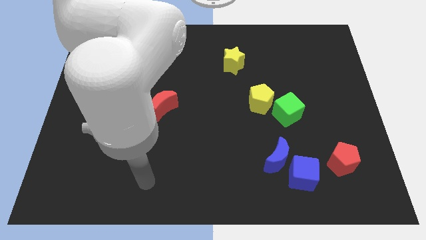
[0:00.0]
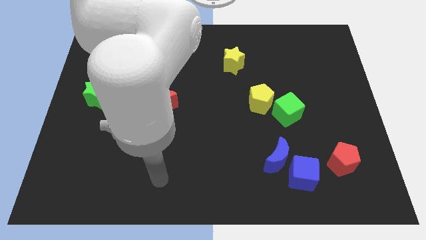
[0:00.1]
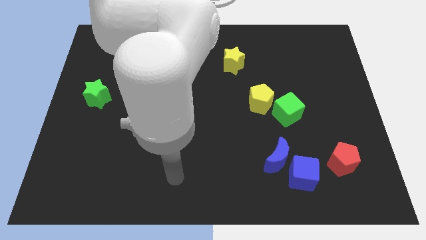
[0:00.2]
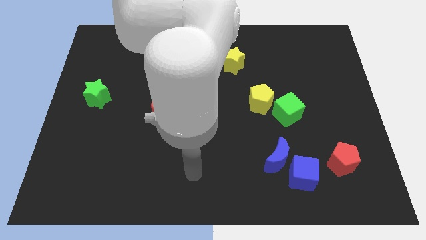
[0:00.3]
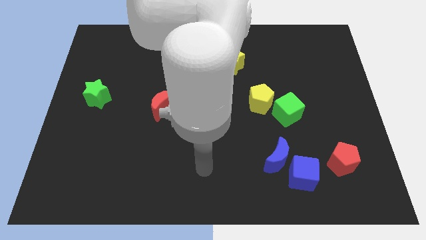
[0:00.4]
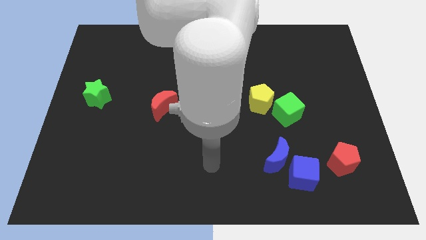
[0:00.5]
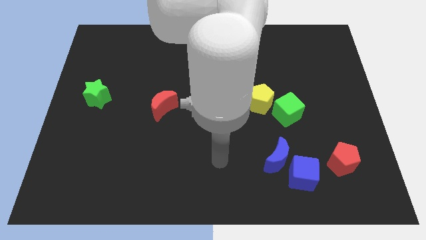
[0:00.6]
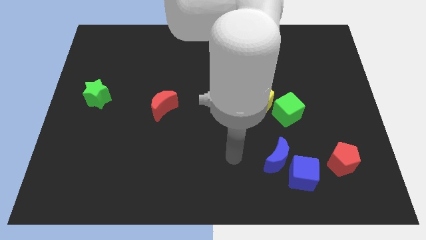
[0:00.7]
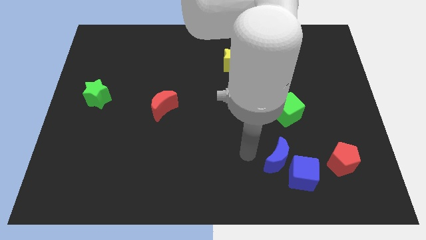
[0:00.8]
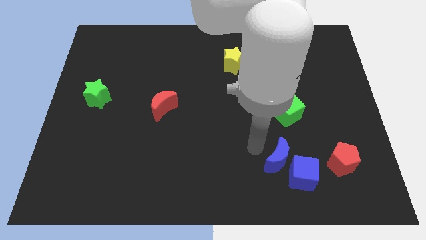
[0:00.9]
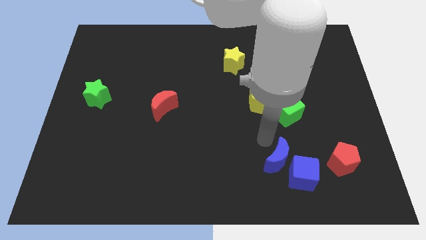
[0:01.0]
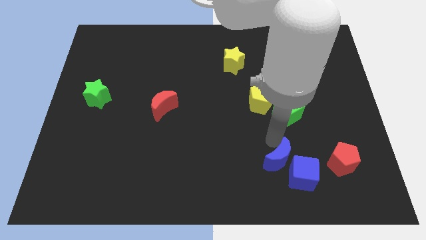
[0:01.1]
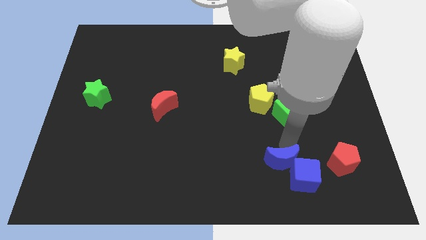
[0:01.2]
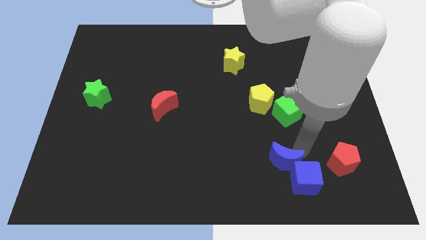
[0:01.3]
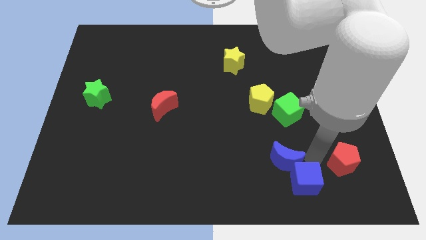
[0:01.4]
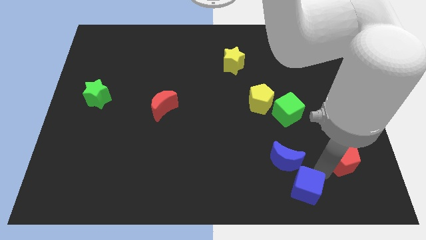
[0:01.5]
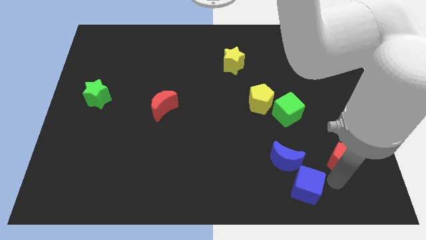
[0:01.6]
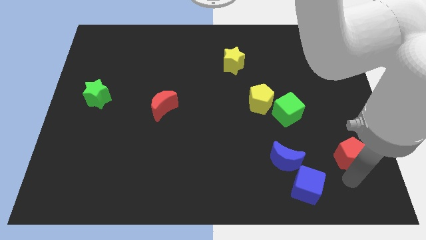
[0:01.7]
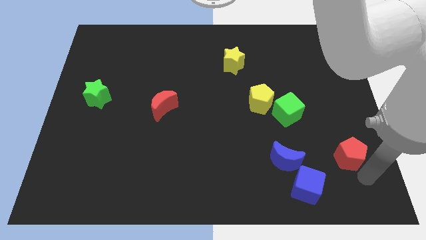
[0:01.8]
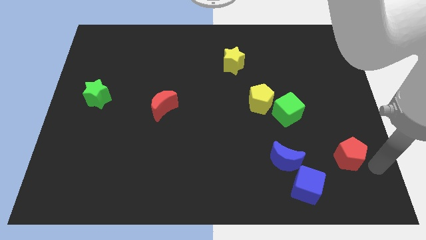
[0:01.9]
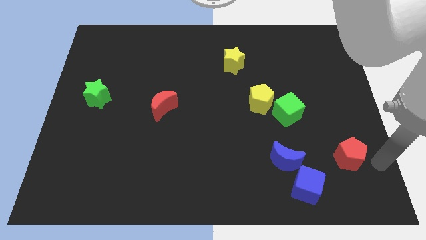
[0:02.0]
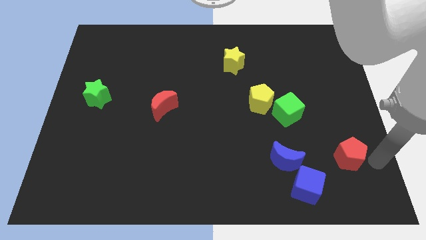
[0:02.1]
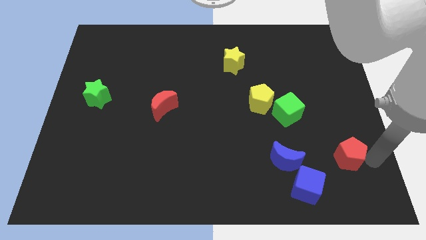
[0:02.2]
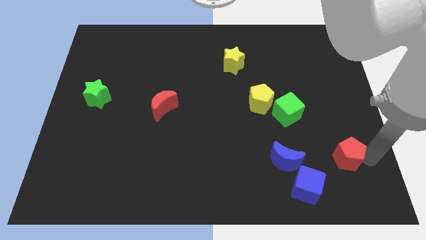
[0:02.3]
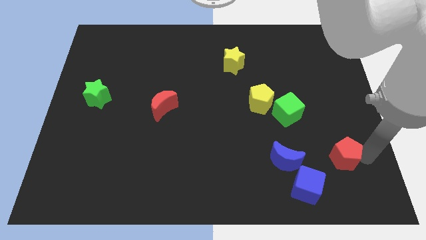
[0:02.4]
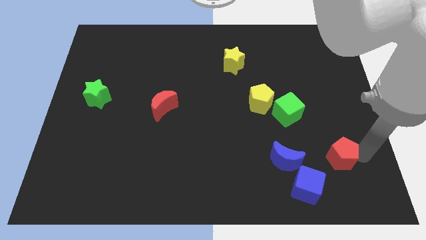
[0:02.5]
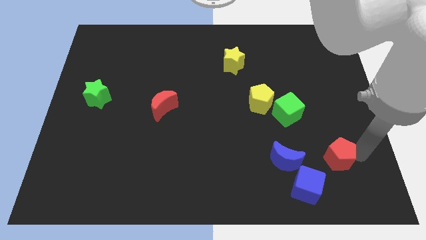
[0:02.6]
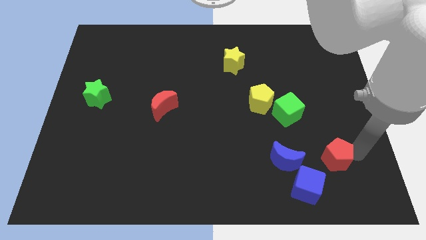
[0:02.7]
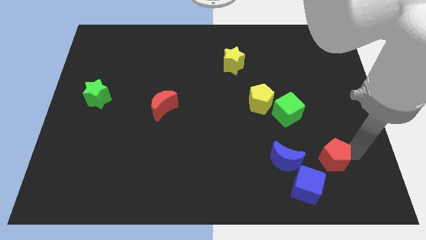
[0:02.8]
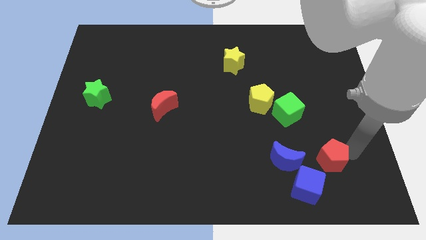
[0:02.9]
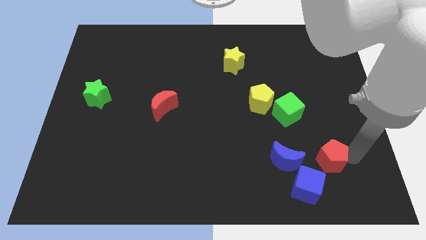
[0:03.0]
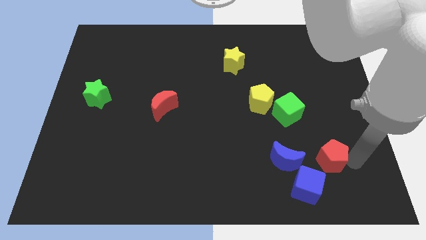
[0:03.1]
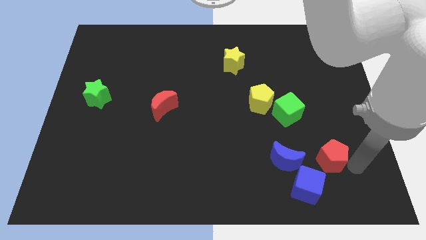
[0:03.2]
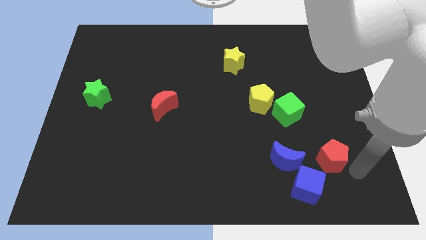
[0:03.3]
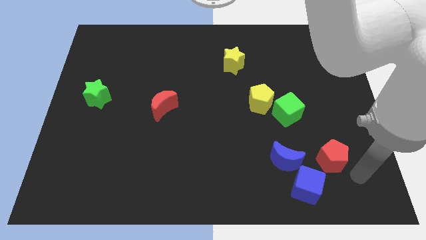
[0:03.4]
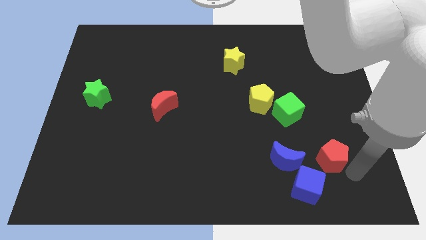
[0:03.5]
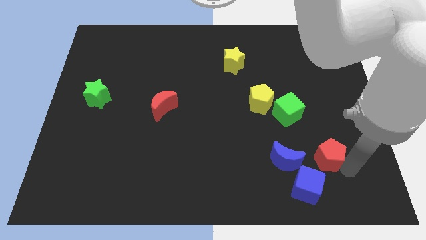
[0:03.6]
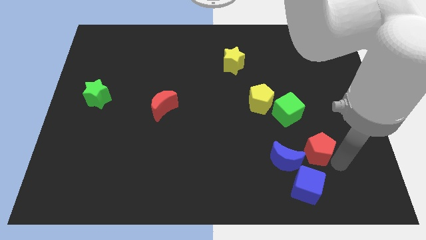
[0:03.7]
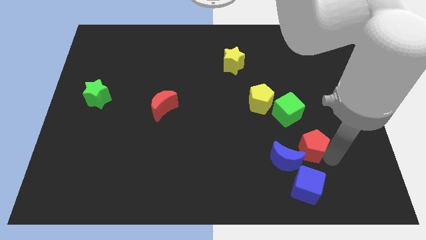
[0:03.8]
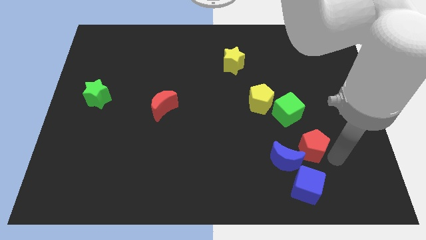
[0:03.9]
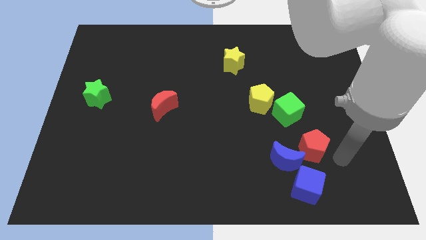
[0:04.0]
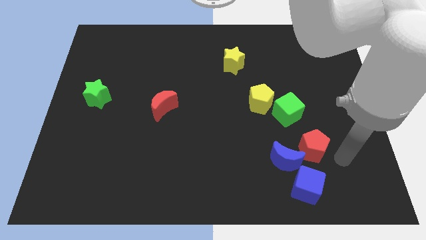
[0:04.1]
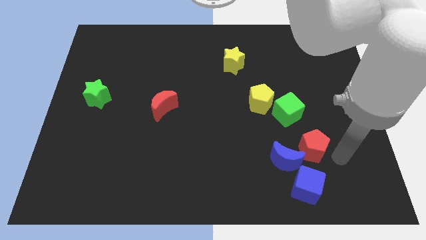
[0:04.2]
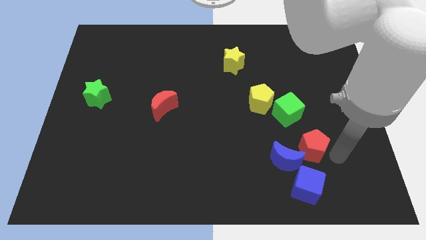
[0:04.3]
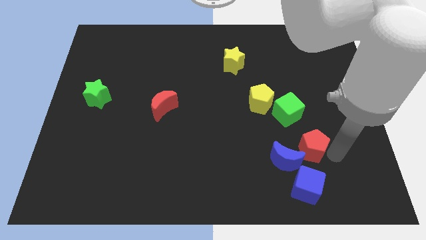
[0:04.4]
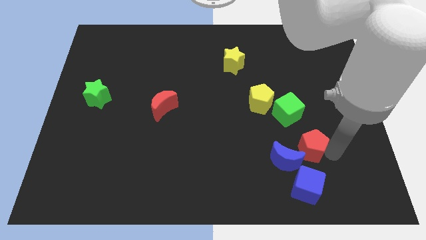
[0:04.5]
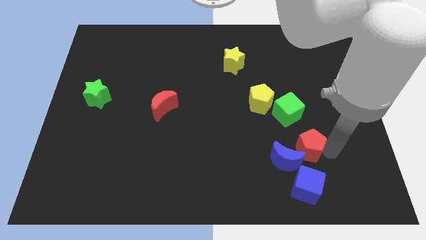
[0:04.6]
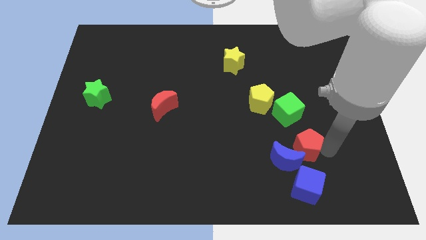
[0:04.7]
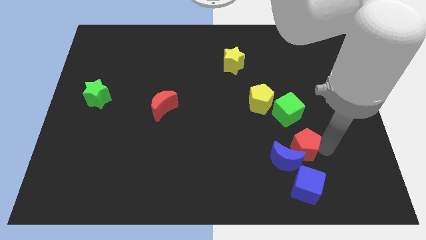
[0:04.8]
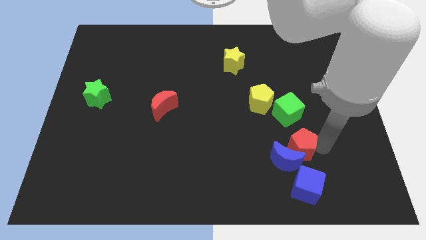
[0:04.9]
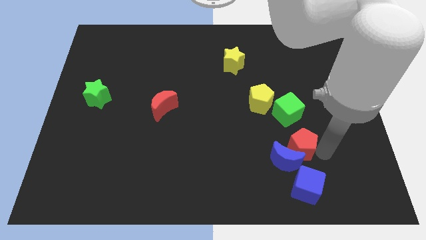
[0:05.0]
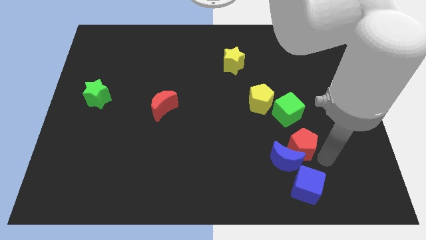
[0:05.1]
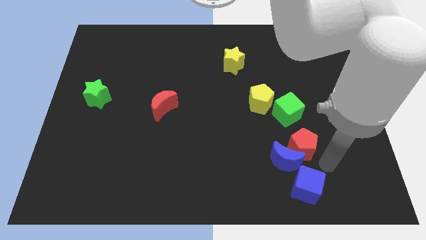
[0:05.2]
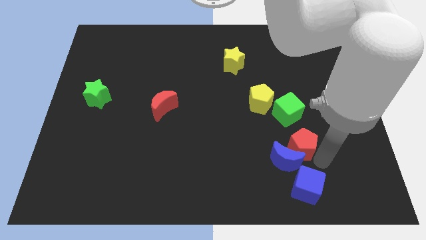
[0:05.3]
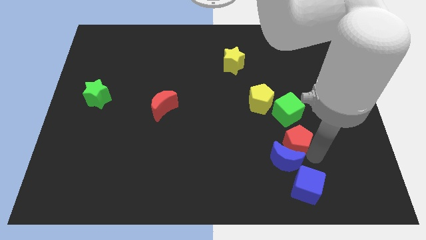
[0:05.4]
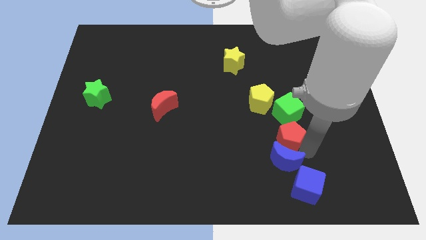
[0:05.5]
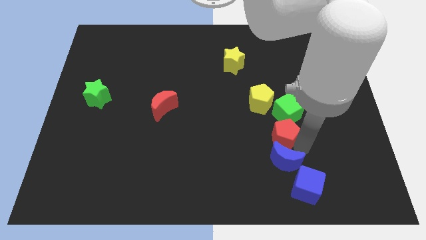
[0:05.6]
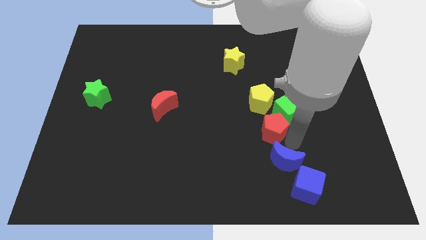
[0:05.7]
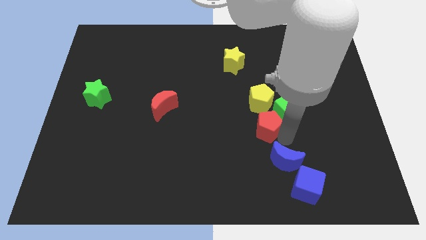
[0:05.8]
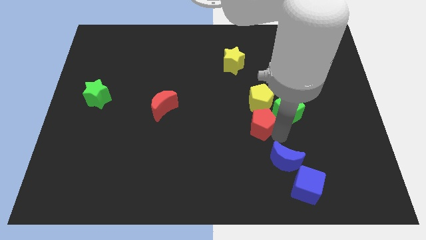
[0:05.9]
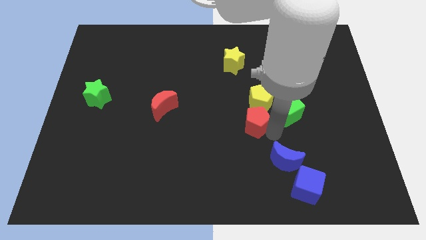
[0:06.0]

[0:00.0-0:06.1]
push the red pentagon to the center
